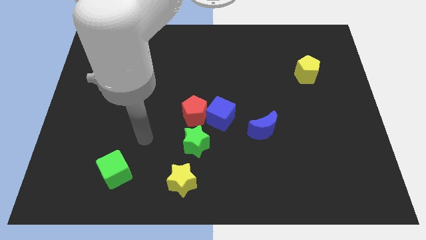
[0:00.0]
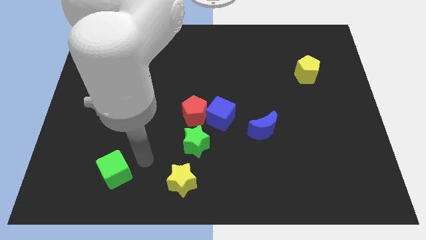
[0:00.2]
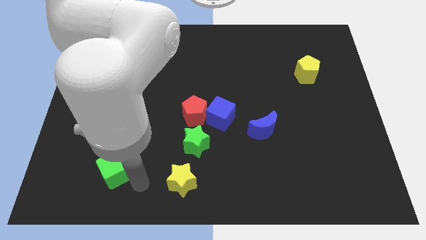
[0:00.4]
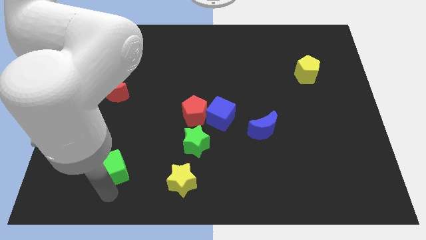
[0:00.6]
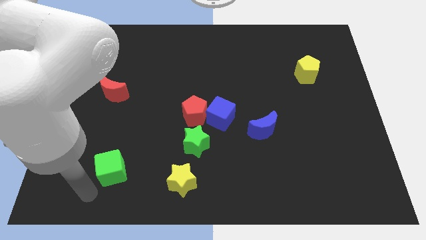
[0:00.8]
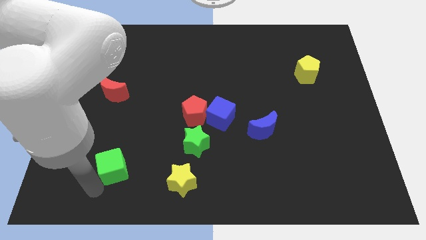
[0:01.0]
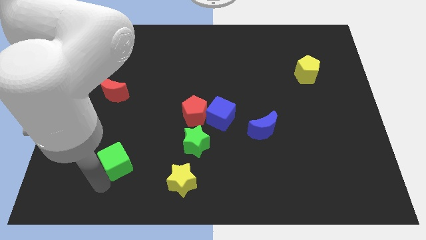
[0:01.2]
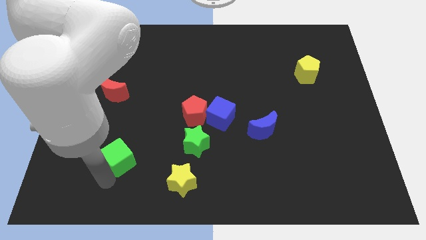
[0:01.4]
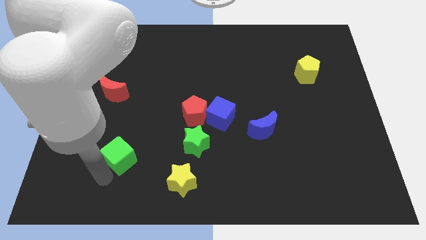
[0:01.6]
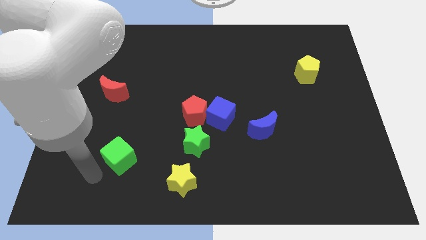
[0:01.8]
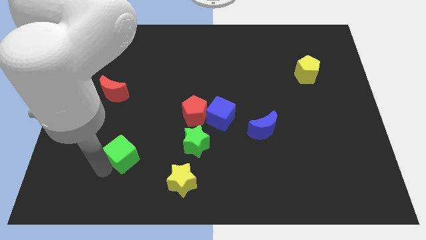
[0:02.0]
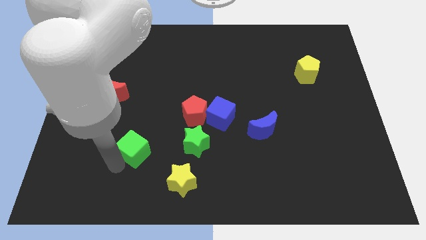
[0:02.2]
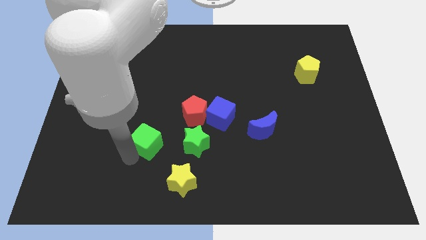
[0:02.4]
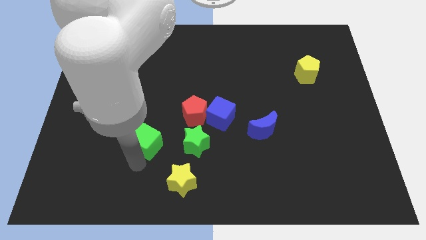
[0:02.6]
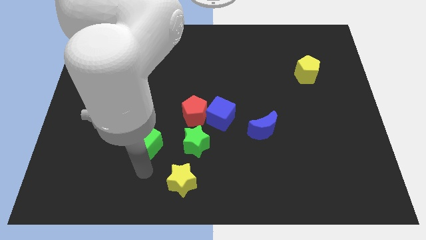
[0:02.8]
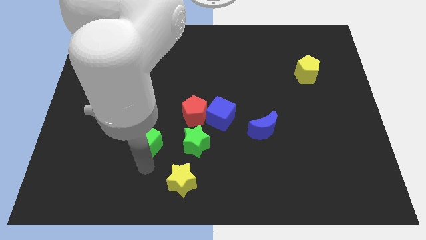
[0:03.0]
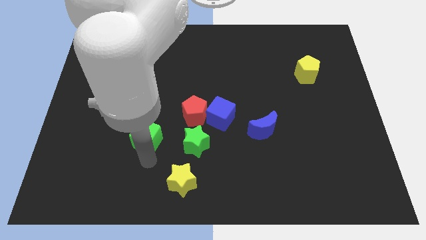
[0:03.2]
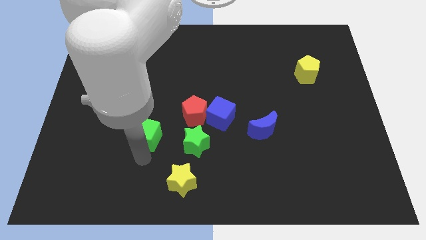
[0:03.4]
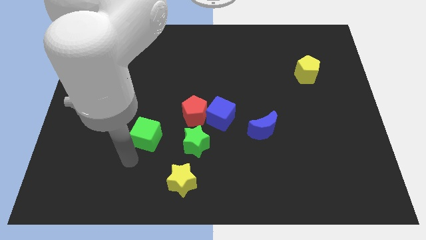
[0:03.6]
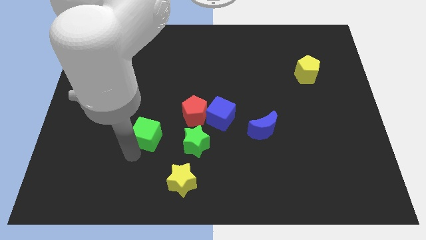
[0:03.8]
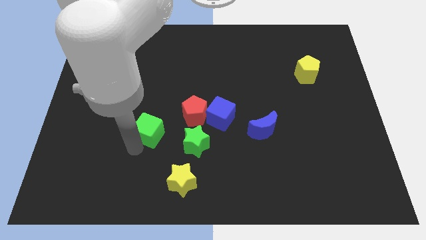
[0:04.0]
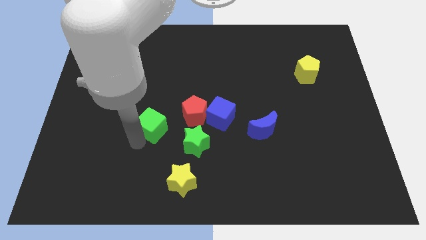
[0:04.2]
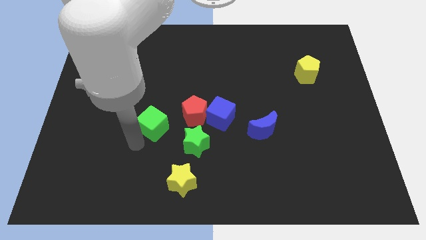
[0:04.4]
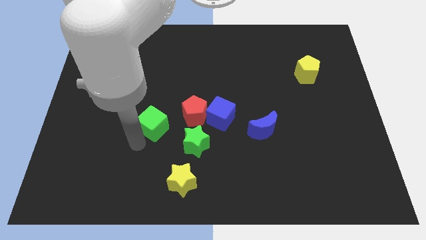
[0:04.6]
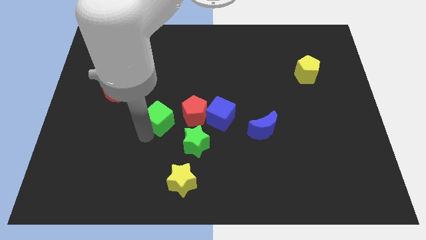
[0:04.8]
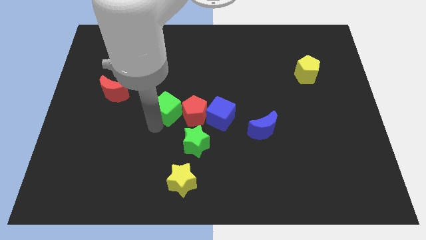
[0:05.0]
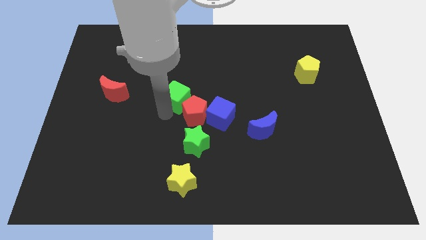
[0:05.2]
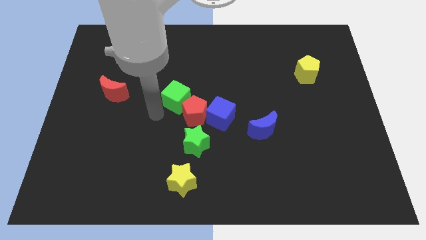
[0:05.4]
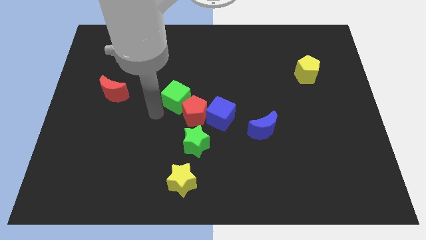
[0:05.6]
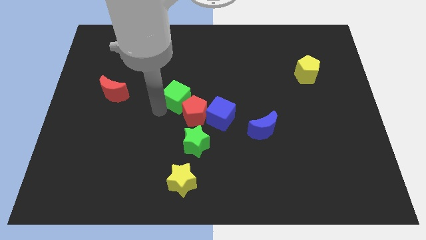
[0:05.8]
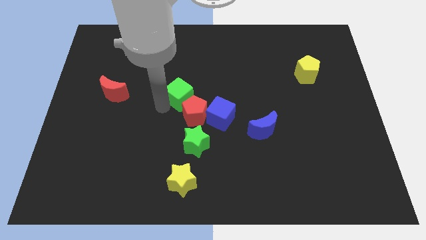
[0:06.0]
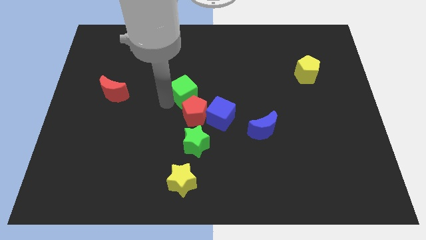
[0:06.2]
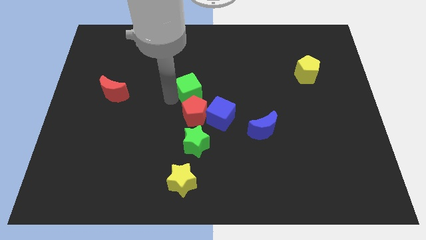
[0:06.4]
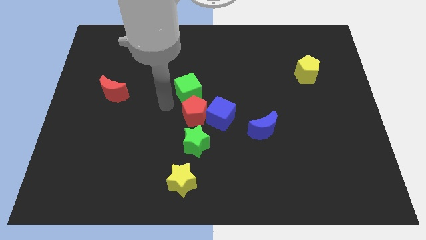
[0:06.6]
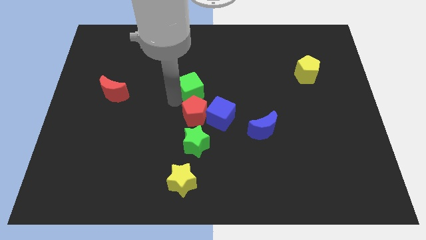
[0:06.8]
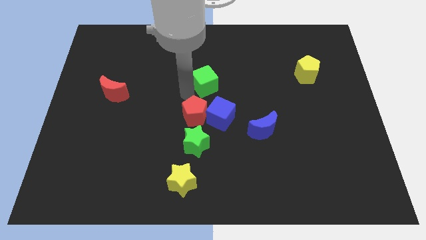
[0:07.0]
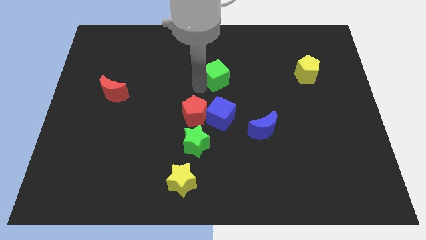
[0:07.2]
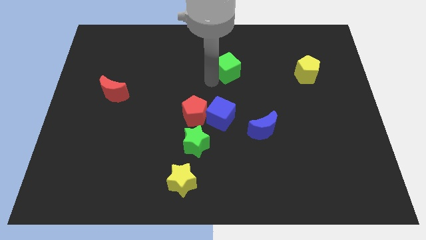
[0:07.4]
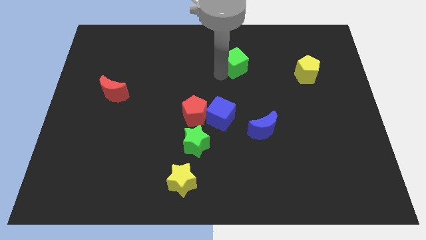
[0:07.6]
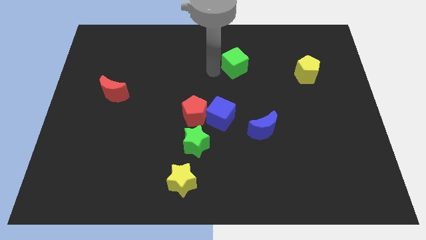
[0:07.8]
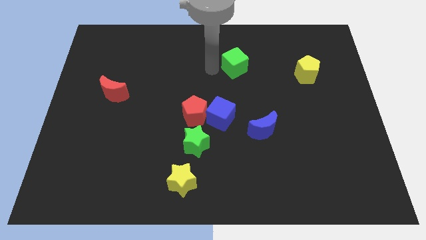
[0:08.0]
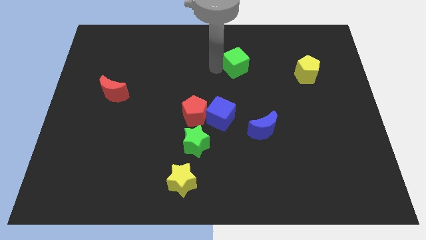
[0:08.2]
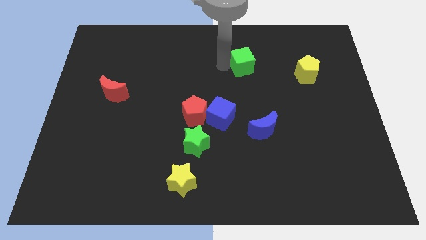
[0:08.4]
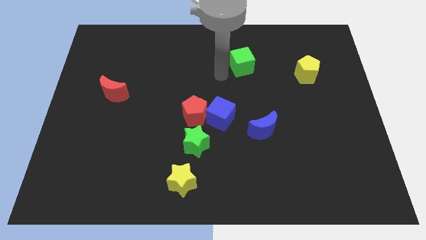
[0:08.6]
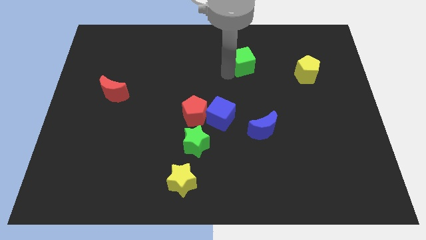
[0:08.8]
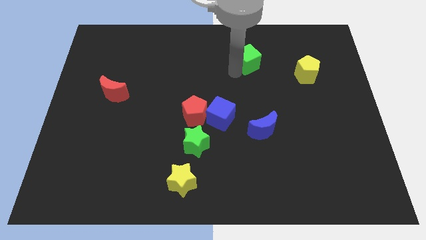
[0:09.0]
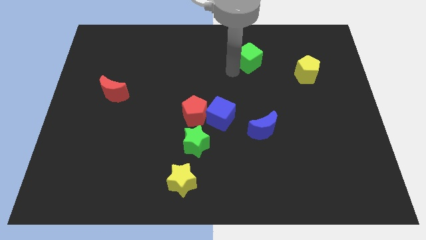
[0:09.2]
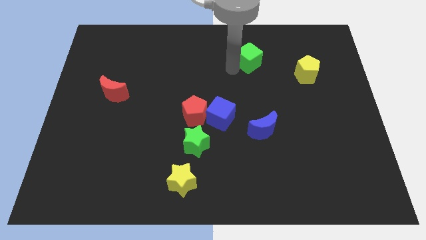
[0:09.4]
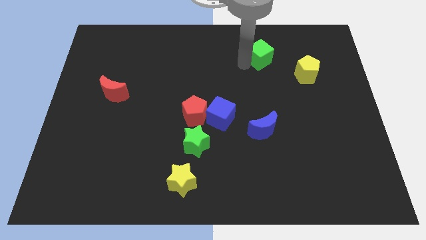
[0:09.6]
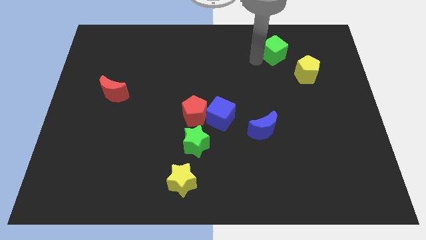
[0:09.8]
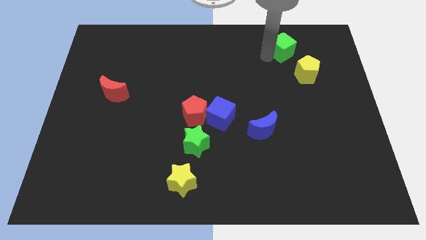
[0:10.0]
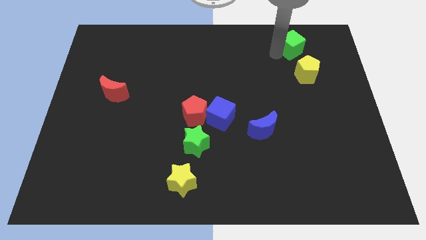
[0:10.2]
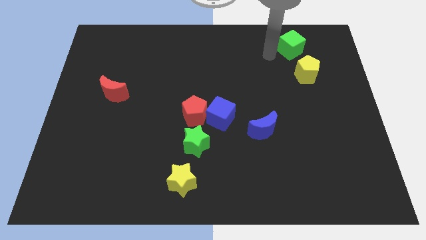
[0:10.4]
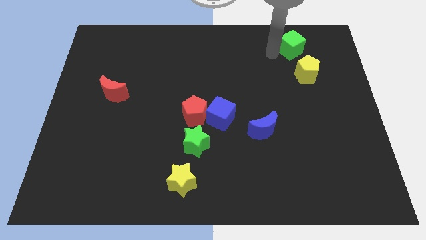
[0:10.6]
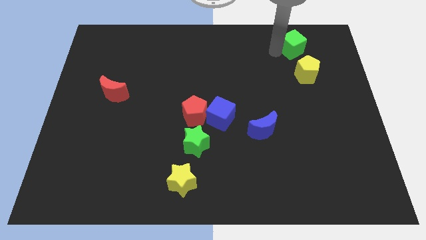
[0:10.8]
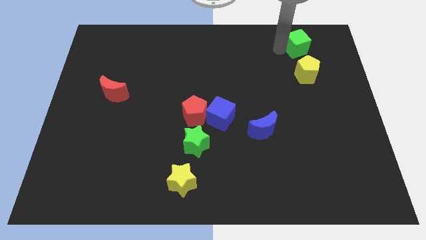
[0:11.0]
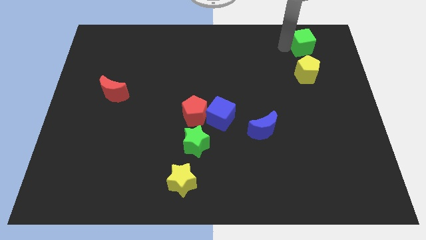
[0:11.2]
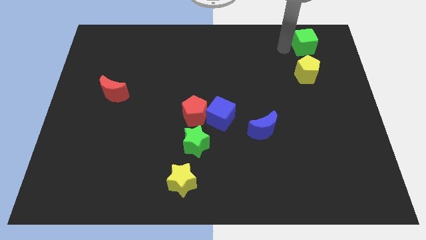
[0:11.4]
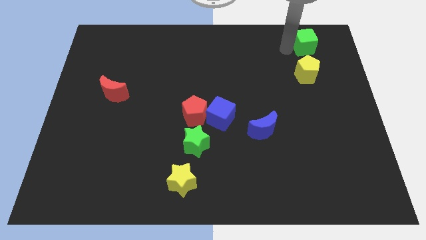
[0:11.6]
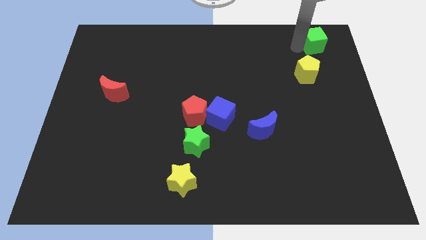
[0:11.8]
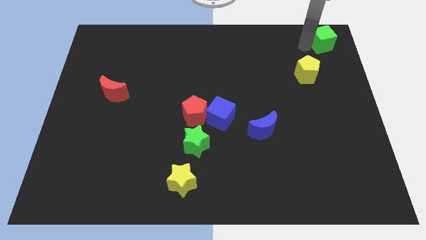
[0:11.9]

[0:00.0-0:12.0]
put the green cube to the top right corner

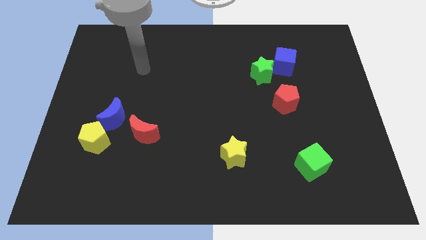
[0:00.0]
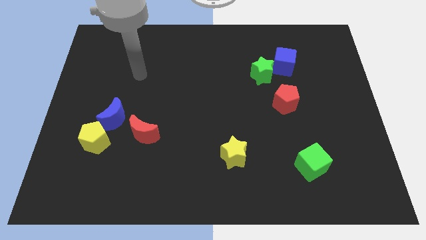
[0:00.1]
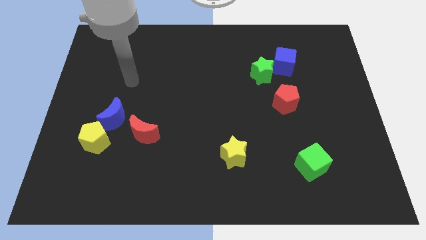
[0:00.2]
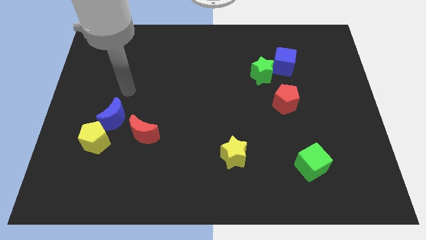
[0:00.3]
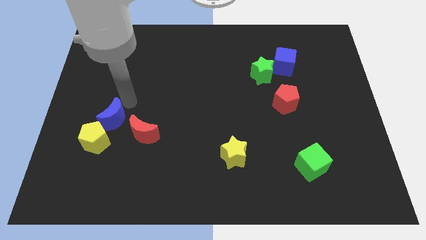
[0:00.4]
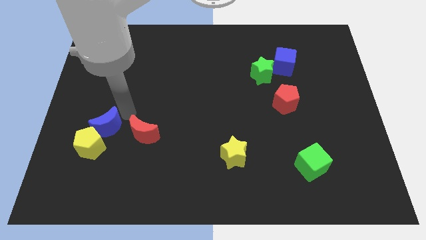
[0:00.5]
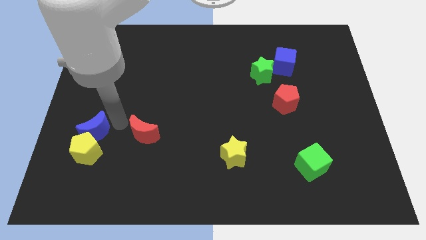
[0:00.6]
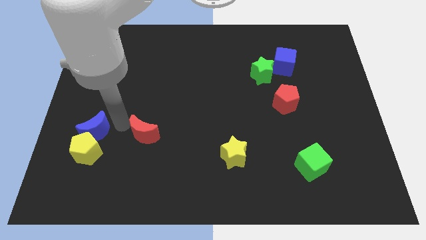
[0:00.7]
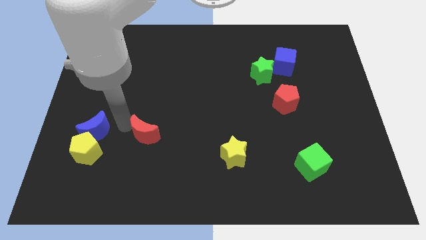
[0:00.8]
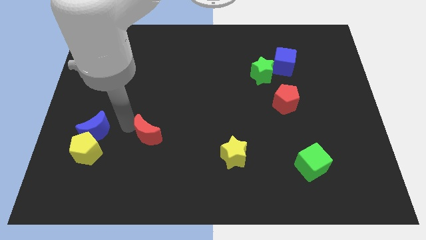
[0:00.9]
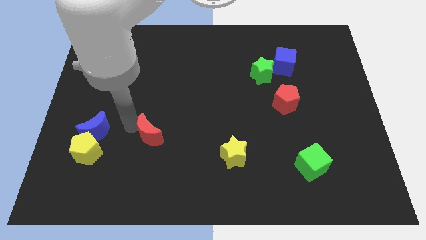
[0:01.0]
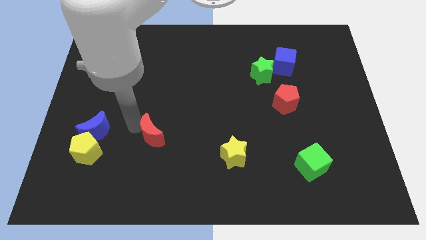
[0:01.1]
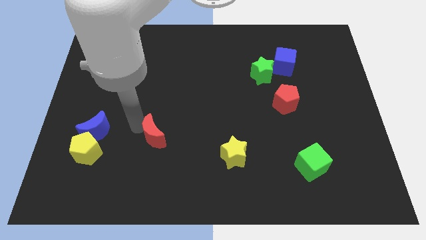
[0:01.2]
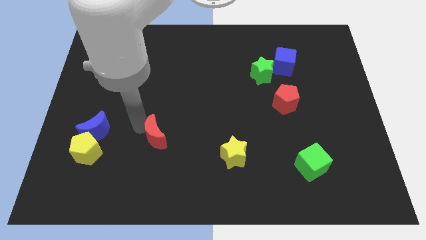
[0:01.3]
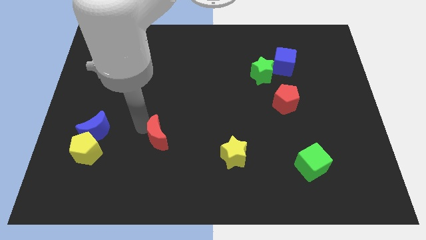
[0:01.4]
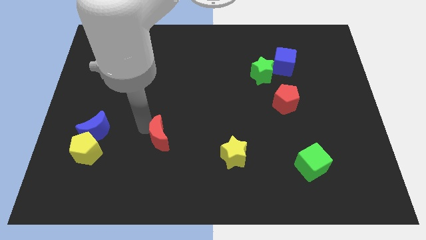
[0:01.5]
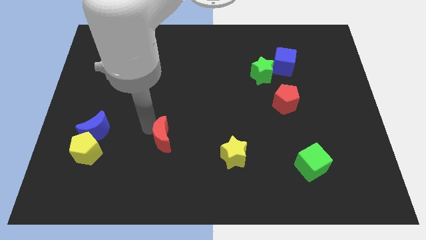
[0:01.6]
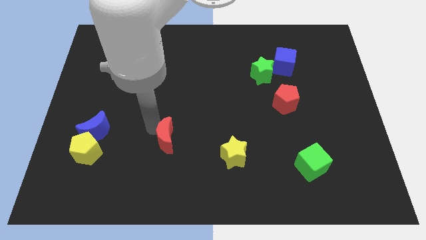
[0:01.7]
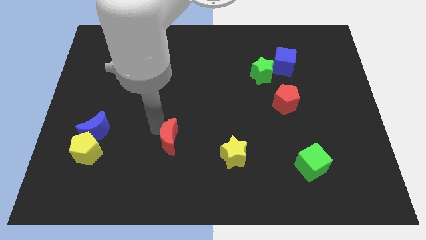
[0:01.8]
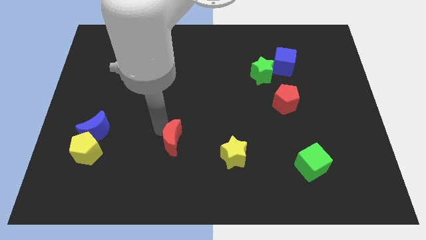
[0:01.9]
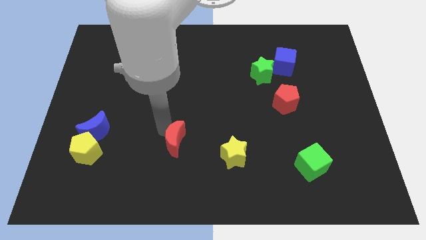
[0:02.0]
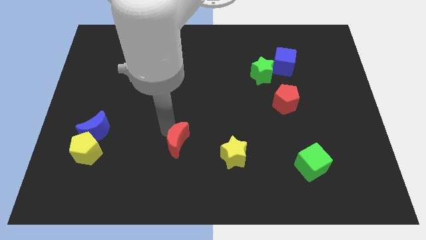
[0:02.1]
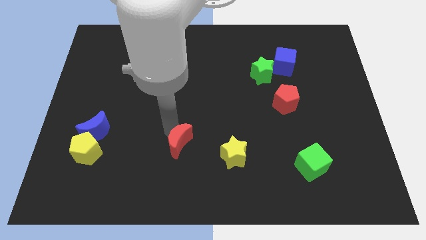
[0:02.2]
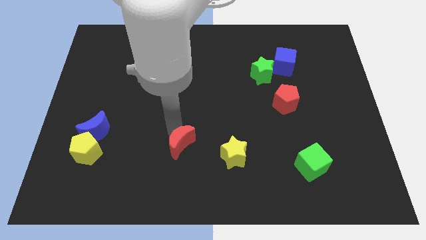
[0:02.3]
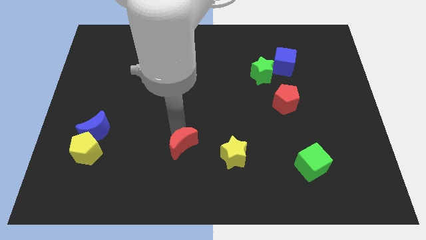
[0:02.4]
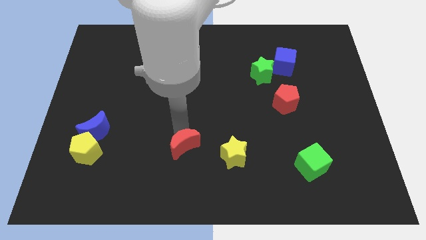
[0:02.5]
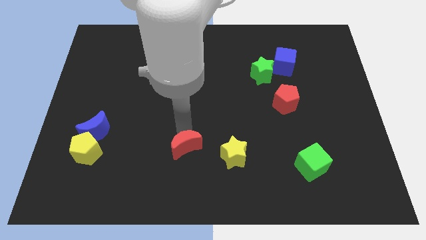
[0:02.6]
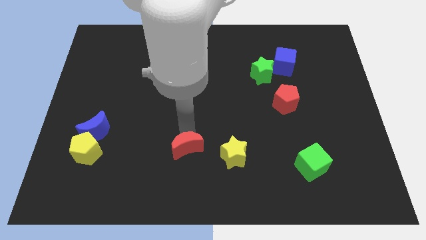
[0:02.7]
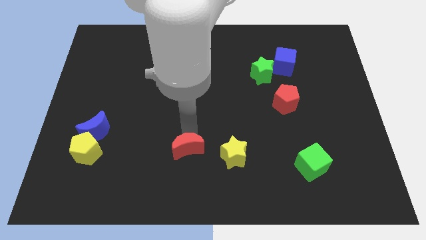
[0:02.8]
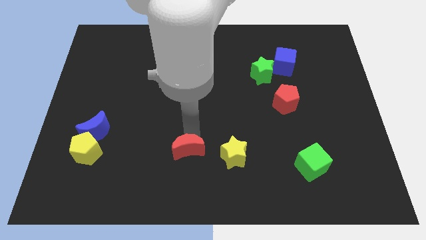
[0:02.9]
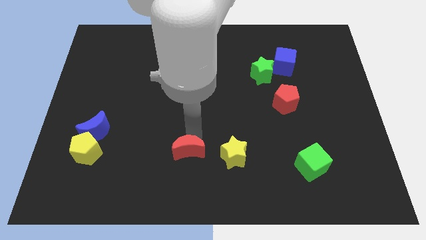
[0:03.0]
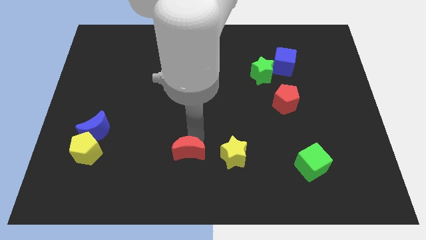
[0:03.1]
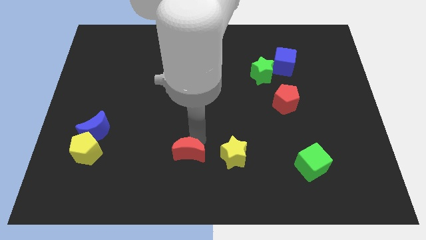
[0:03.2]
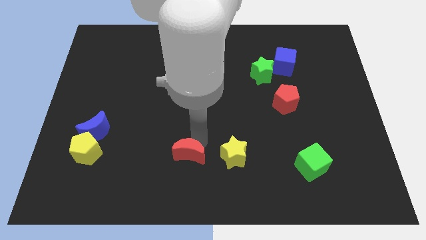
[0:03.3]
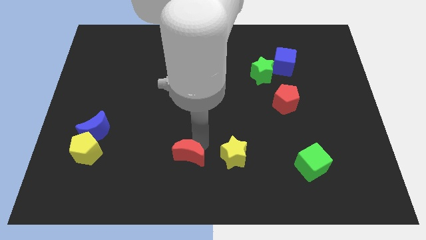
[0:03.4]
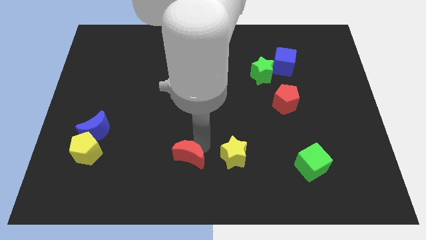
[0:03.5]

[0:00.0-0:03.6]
put the red moon to the bottom
